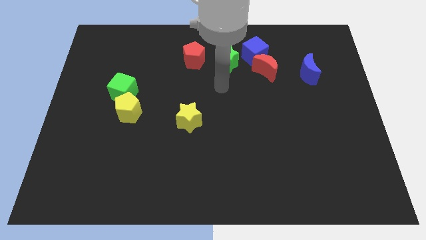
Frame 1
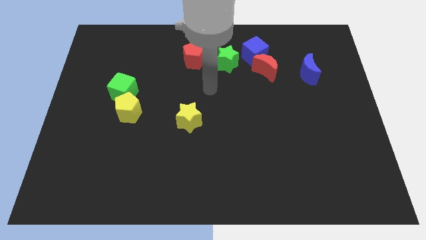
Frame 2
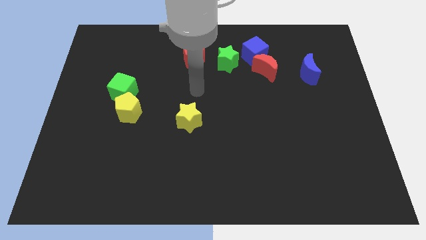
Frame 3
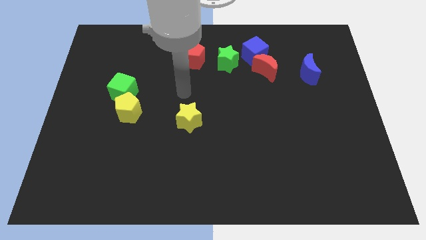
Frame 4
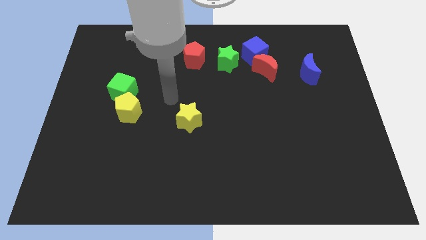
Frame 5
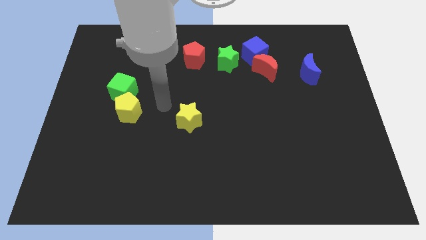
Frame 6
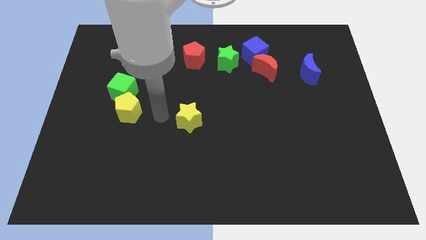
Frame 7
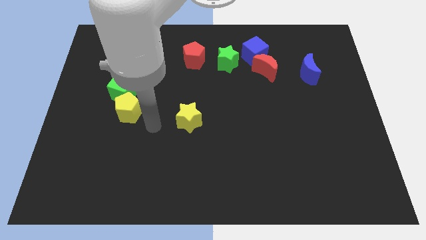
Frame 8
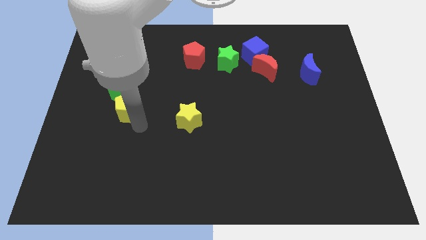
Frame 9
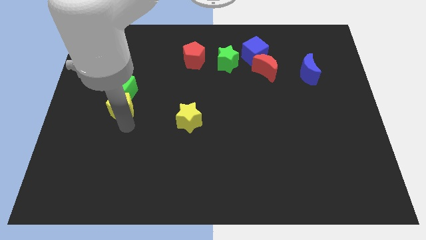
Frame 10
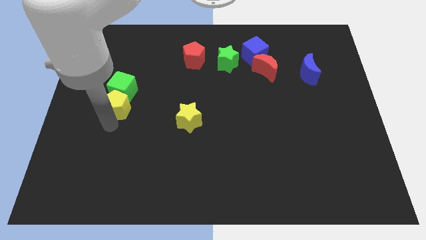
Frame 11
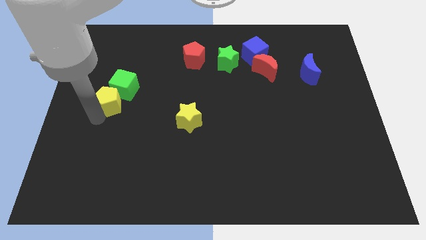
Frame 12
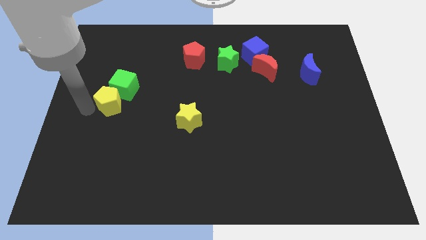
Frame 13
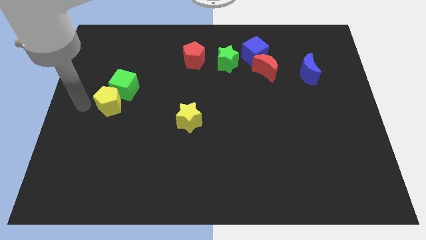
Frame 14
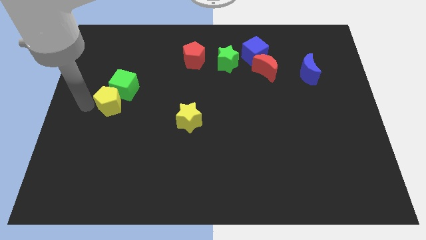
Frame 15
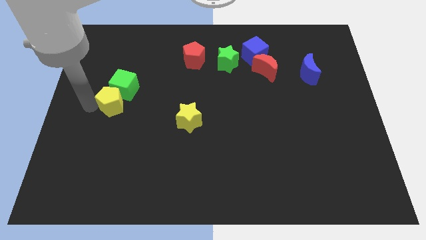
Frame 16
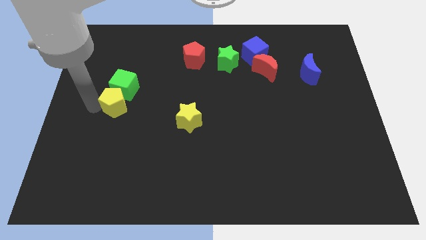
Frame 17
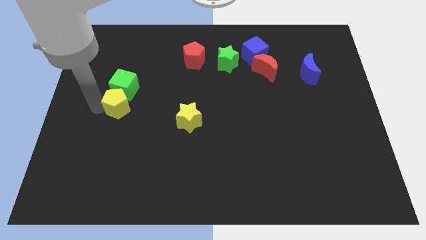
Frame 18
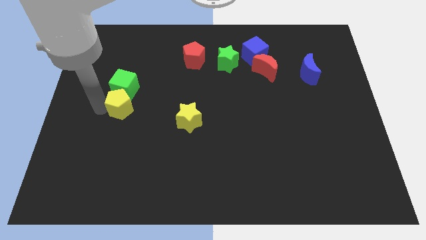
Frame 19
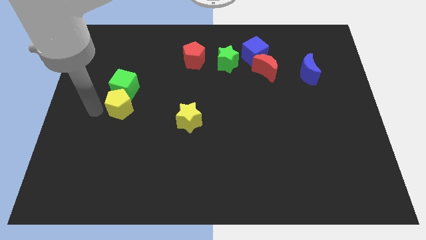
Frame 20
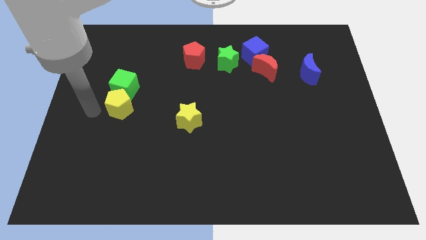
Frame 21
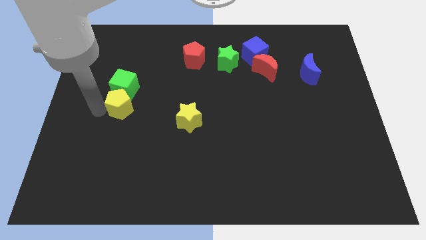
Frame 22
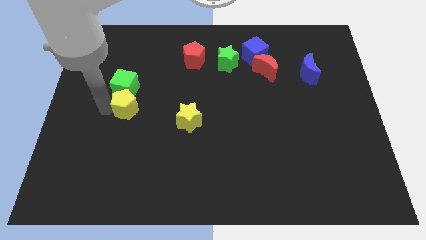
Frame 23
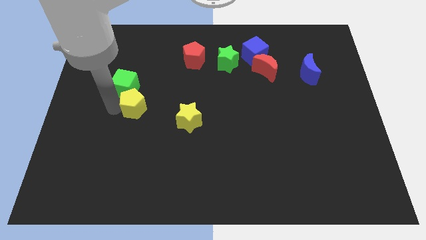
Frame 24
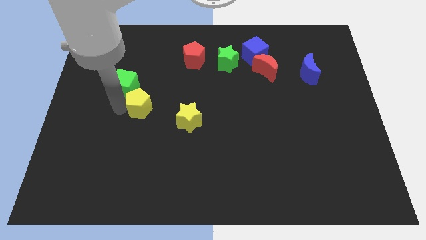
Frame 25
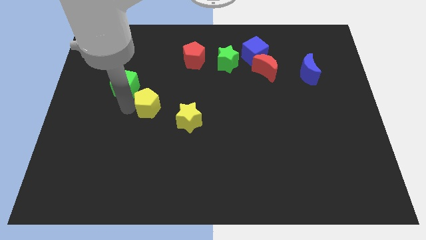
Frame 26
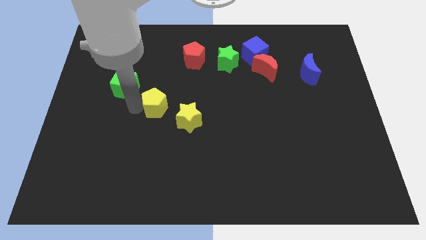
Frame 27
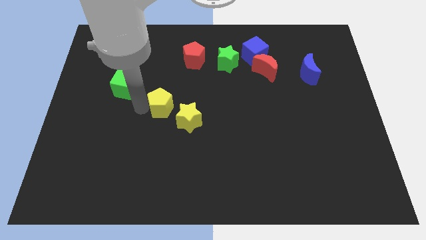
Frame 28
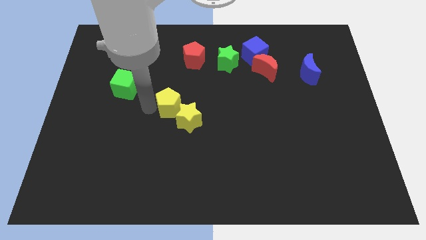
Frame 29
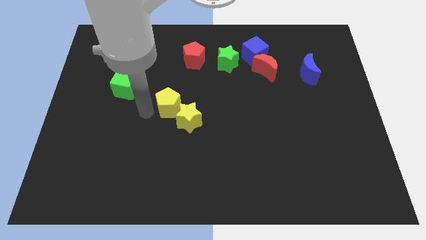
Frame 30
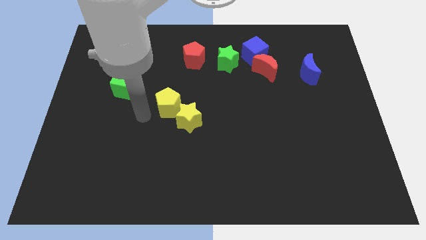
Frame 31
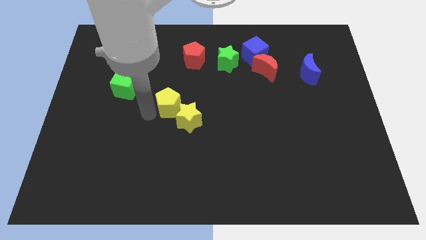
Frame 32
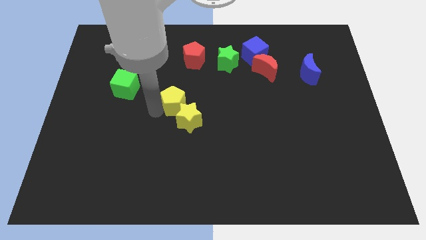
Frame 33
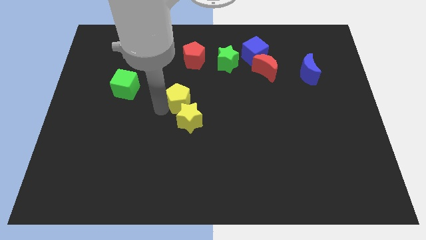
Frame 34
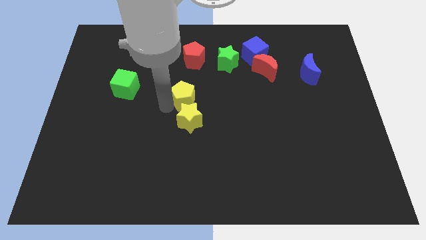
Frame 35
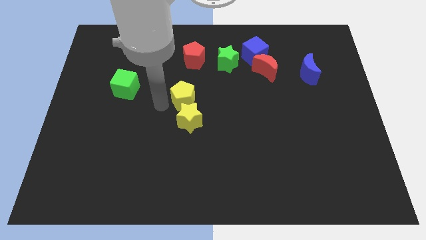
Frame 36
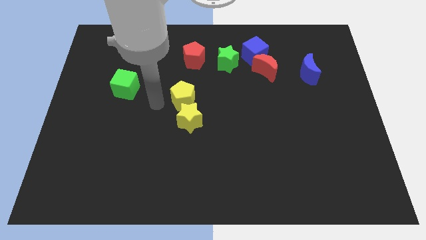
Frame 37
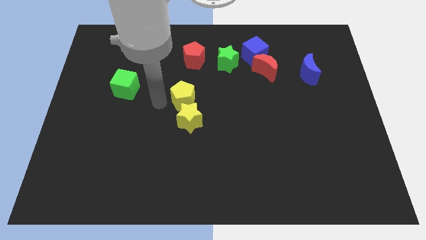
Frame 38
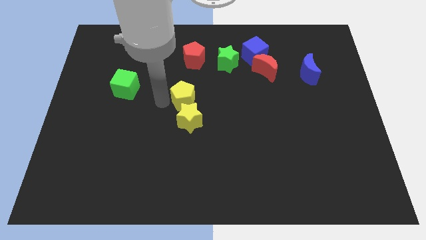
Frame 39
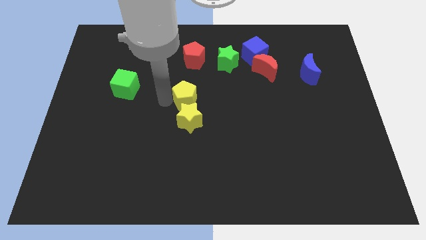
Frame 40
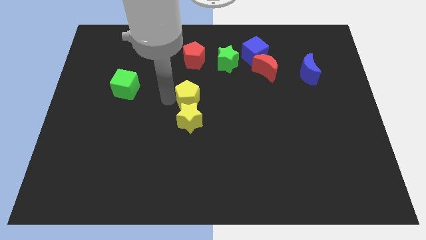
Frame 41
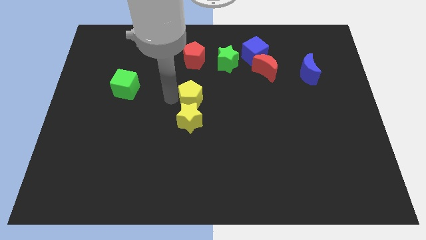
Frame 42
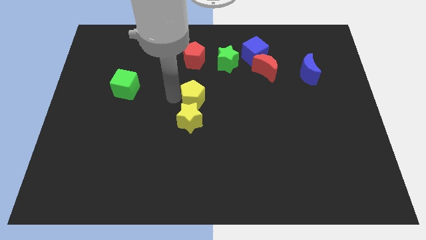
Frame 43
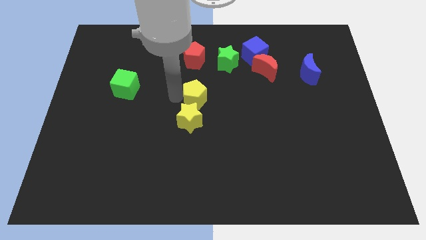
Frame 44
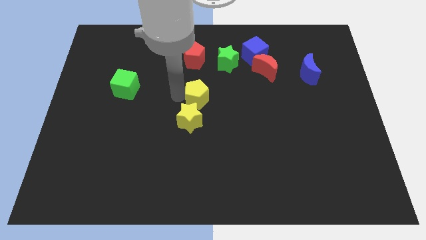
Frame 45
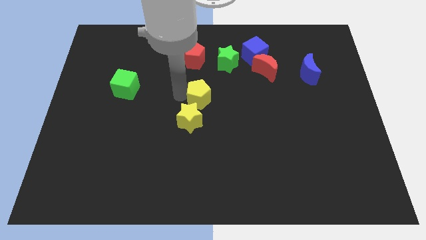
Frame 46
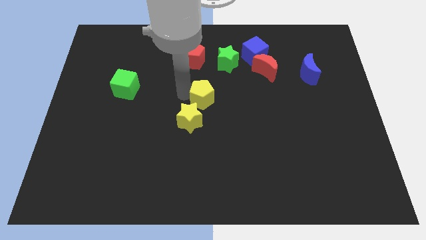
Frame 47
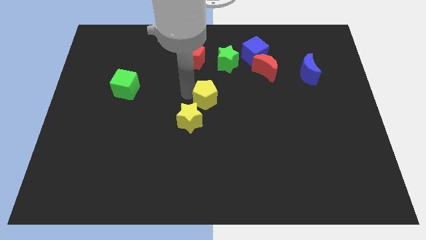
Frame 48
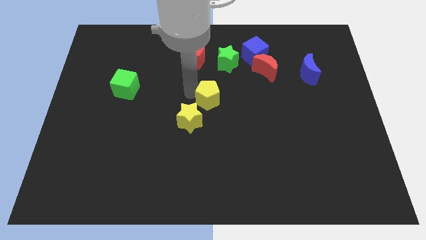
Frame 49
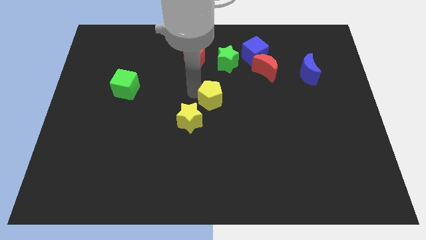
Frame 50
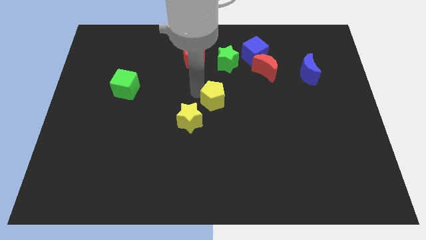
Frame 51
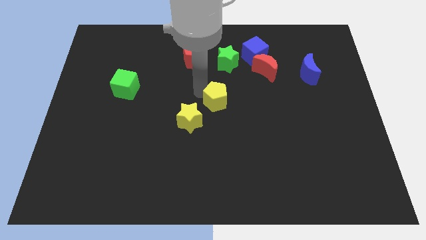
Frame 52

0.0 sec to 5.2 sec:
slide the yellow pentagon right

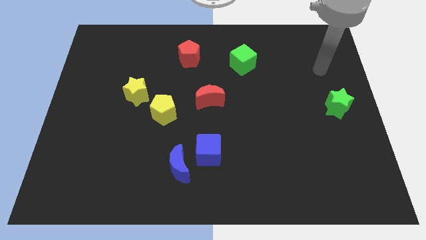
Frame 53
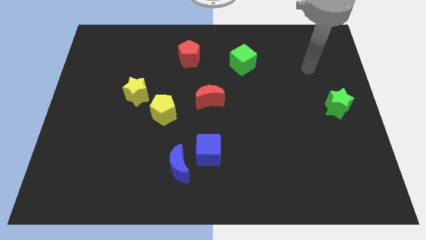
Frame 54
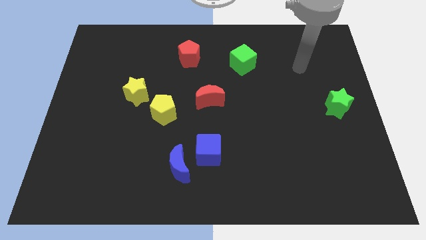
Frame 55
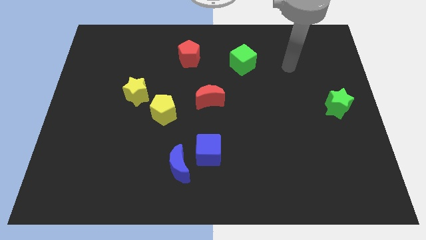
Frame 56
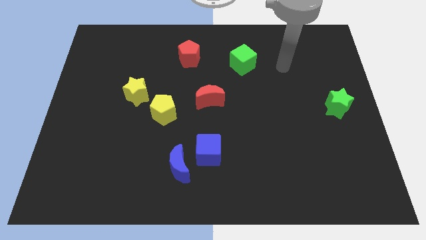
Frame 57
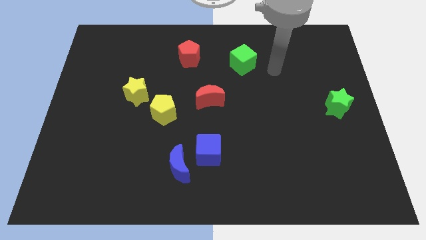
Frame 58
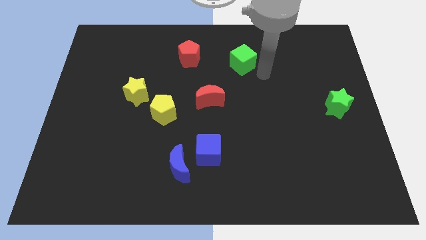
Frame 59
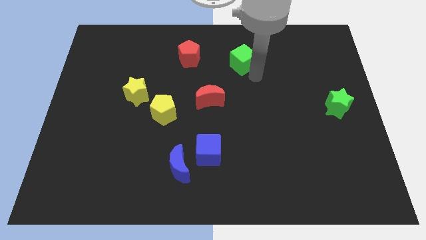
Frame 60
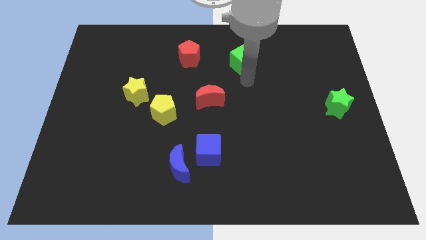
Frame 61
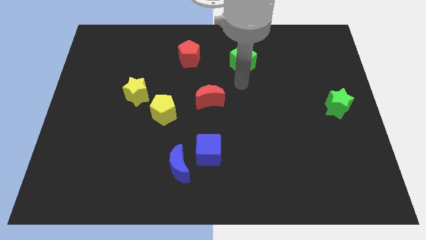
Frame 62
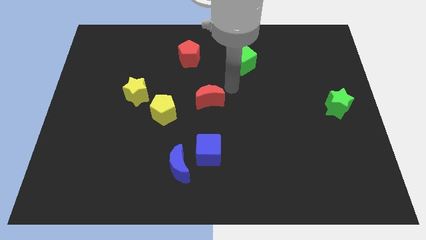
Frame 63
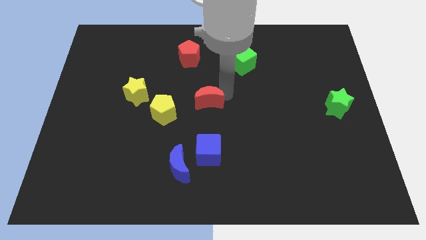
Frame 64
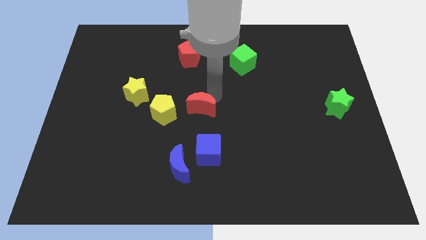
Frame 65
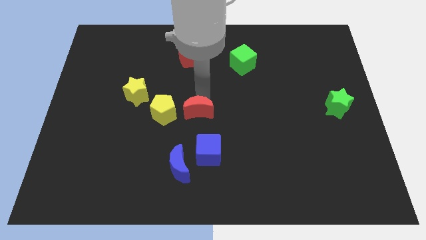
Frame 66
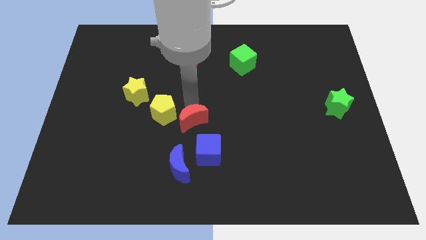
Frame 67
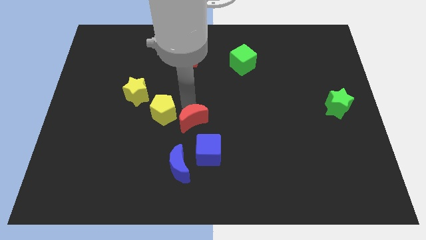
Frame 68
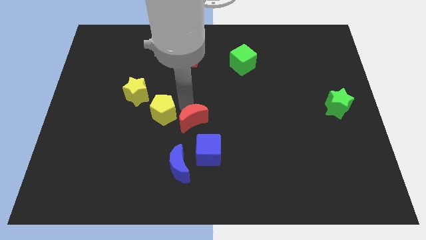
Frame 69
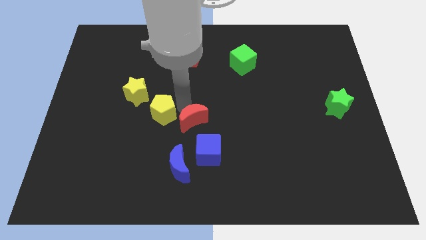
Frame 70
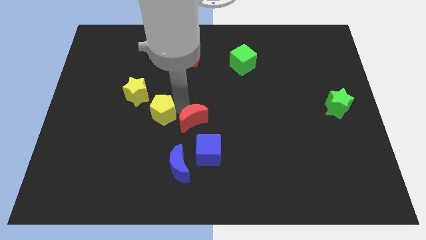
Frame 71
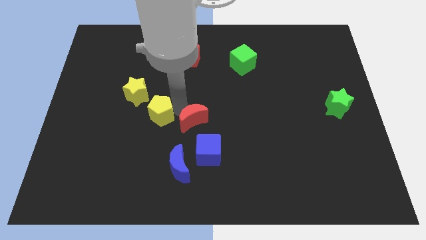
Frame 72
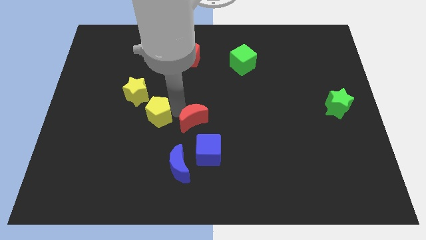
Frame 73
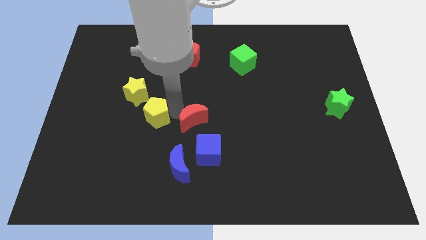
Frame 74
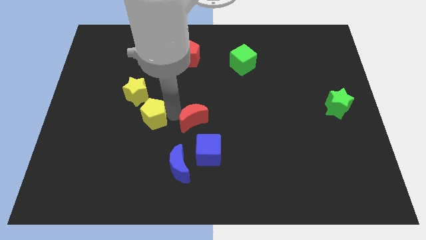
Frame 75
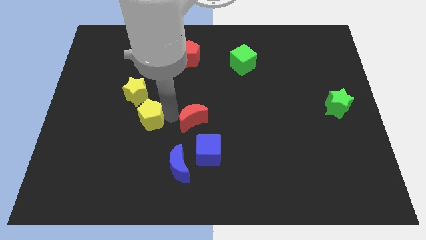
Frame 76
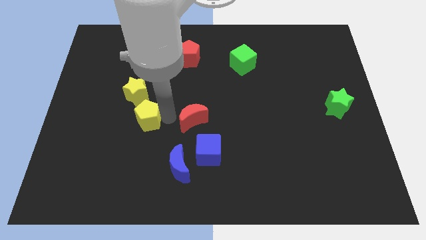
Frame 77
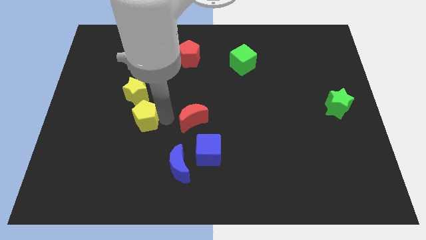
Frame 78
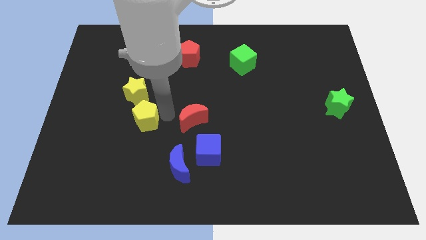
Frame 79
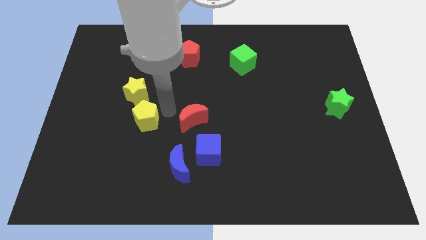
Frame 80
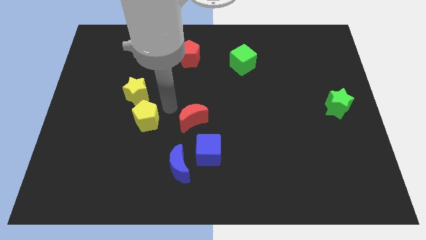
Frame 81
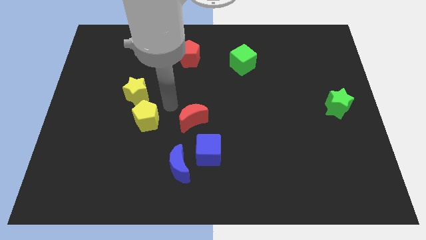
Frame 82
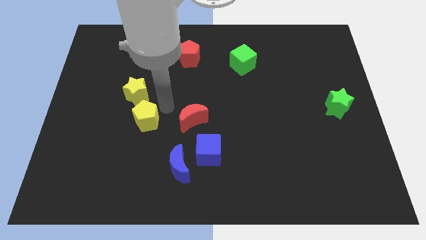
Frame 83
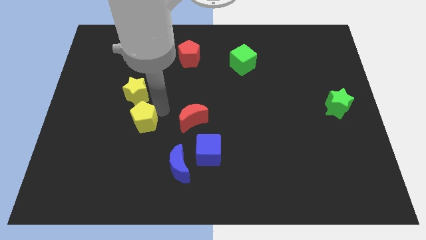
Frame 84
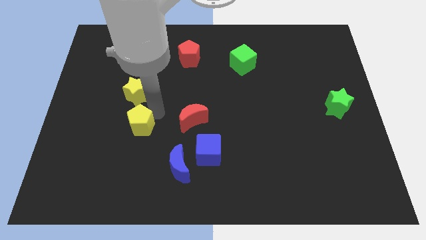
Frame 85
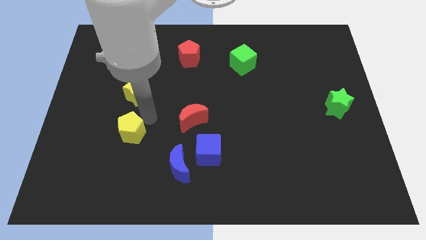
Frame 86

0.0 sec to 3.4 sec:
slightly move the yellow pentagon downwards and then left
